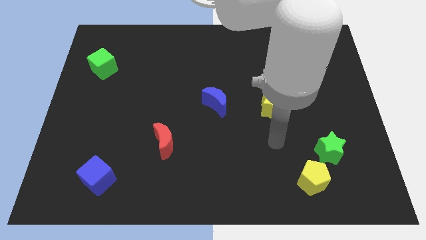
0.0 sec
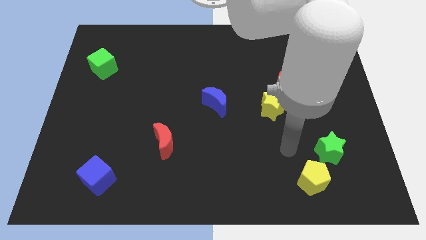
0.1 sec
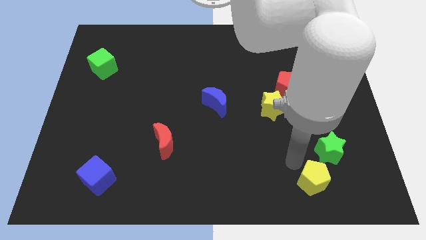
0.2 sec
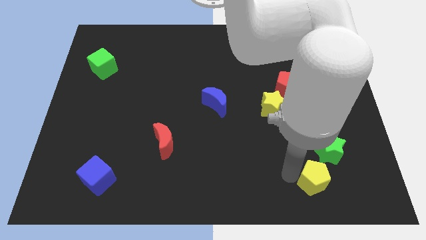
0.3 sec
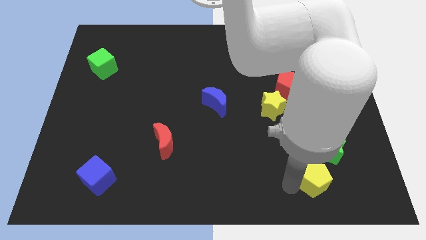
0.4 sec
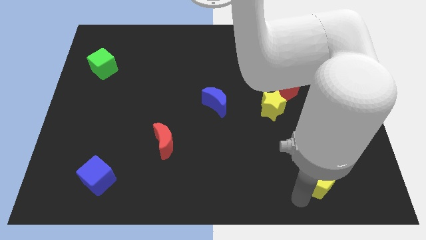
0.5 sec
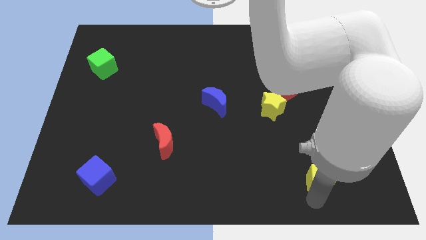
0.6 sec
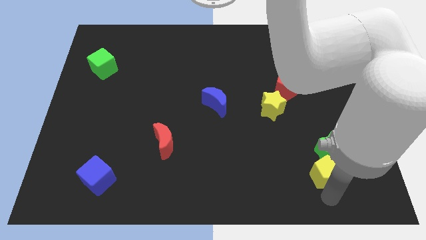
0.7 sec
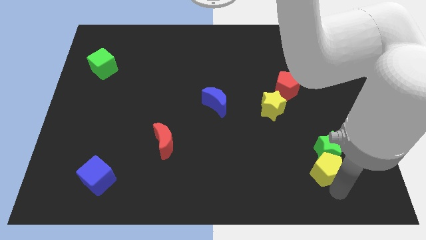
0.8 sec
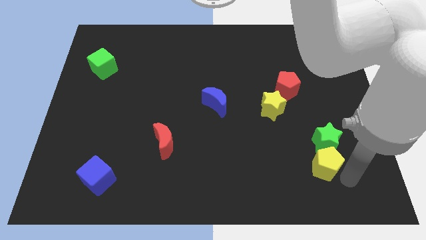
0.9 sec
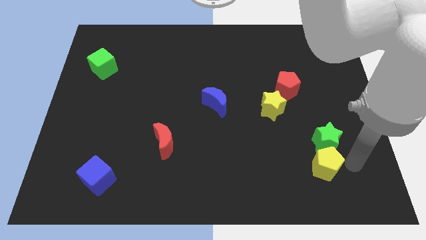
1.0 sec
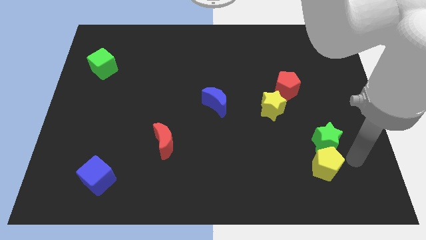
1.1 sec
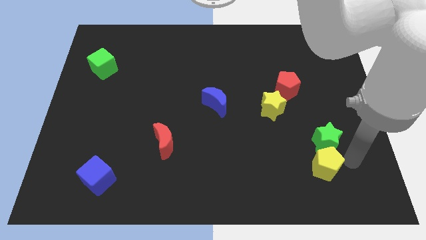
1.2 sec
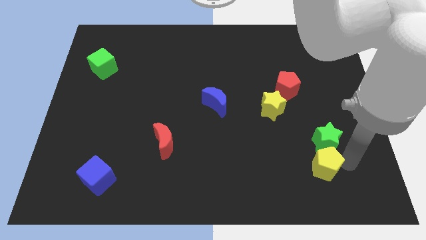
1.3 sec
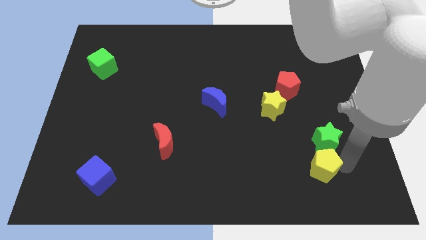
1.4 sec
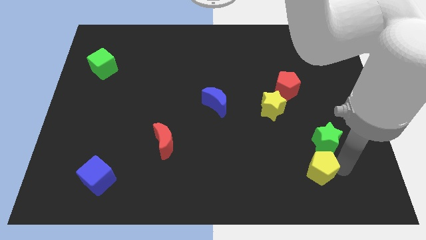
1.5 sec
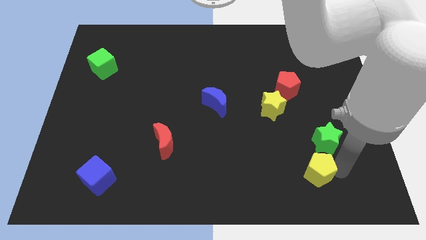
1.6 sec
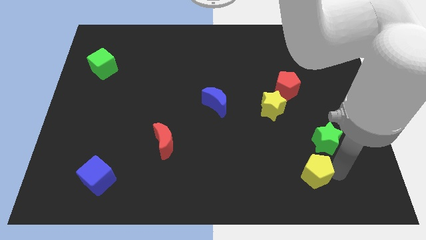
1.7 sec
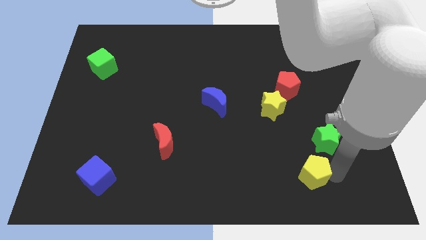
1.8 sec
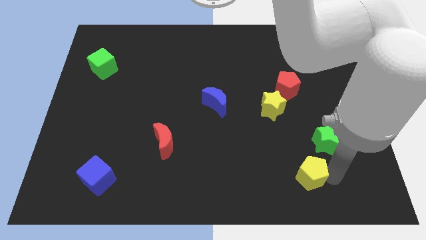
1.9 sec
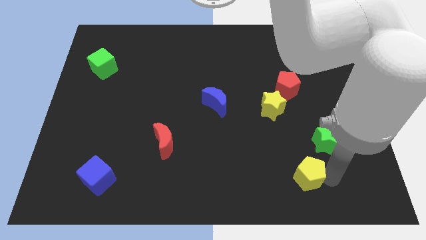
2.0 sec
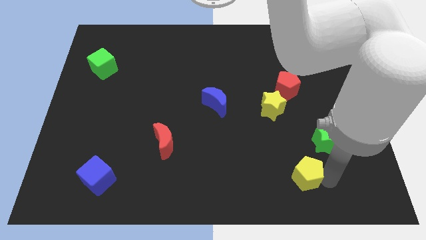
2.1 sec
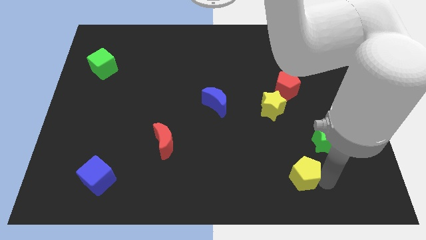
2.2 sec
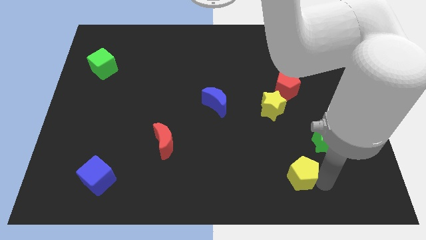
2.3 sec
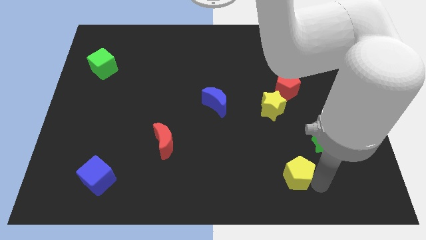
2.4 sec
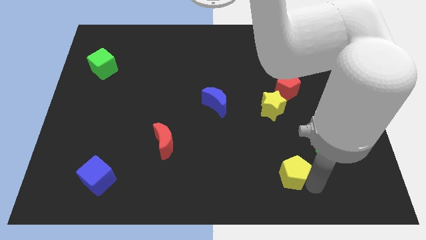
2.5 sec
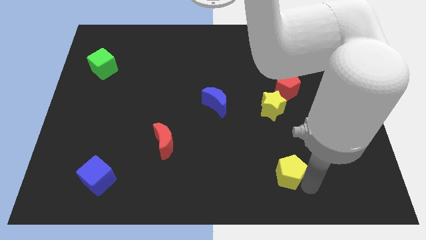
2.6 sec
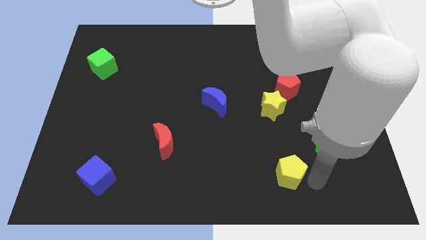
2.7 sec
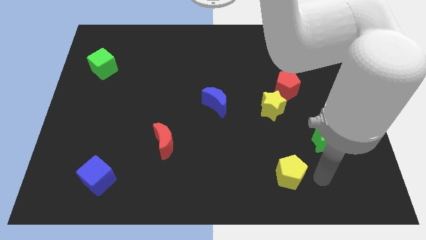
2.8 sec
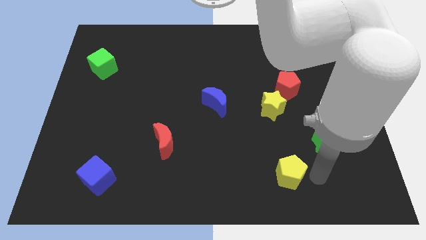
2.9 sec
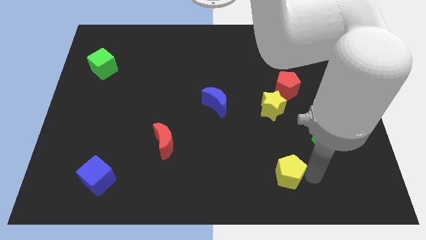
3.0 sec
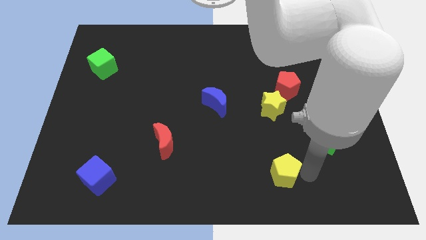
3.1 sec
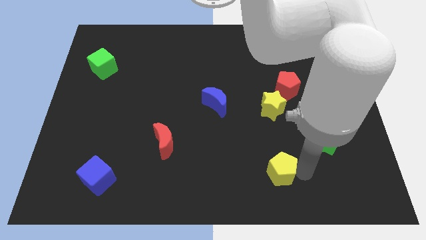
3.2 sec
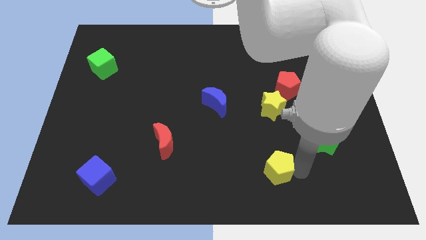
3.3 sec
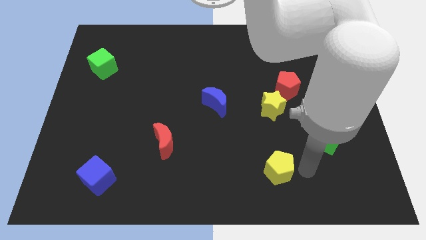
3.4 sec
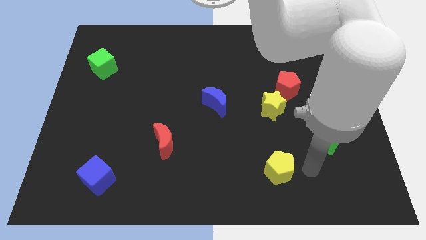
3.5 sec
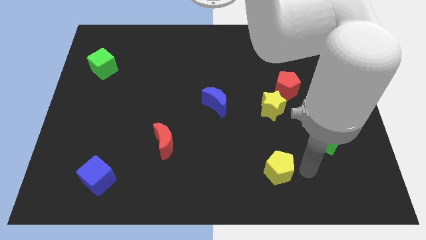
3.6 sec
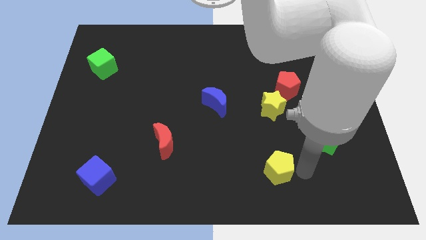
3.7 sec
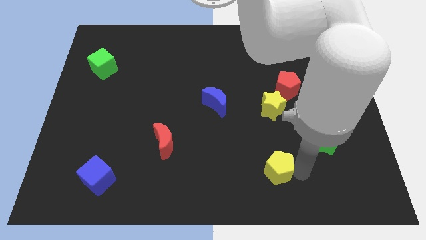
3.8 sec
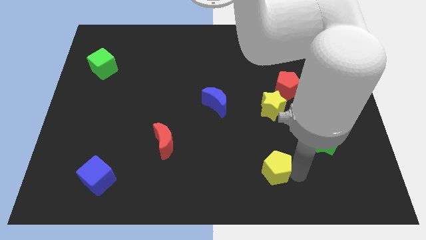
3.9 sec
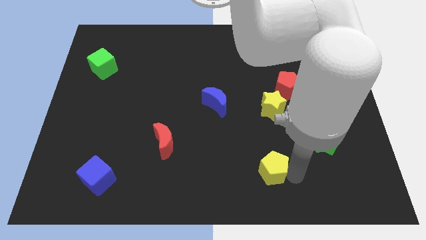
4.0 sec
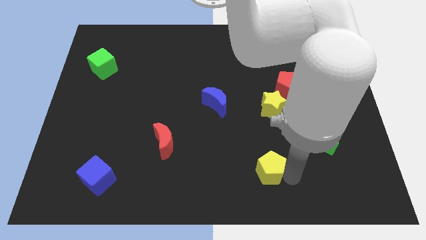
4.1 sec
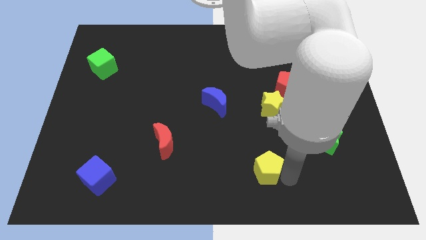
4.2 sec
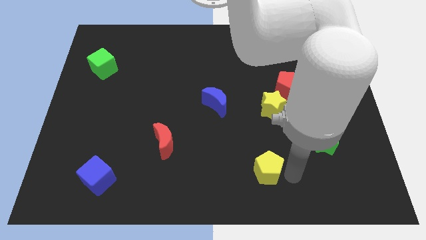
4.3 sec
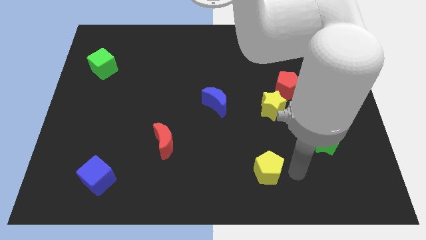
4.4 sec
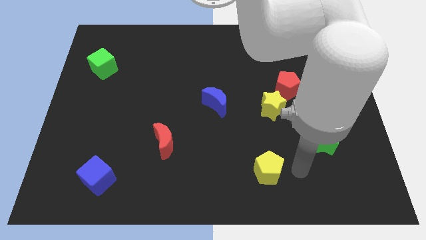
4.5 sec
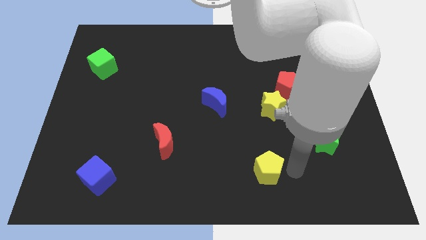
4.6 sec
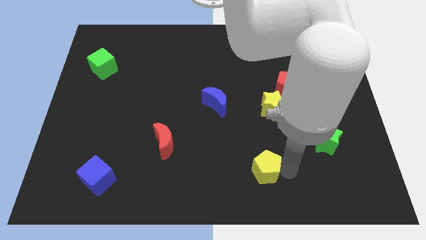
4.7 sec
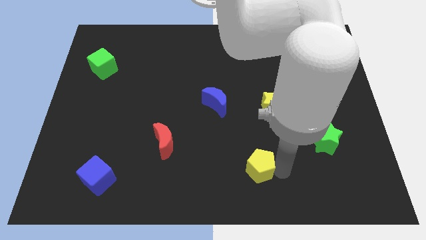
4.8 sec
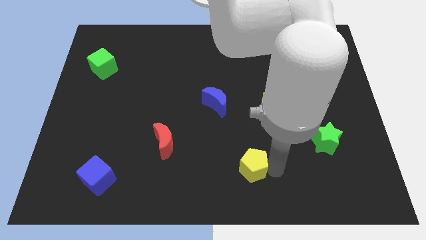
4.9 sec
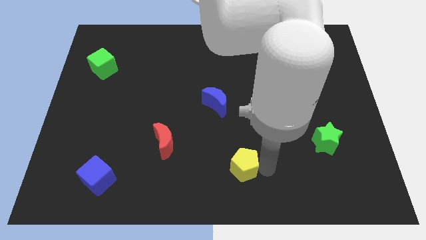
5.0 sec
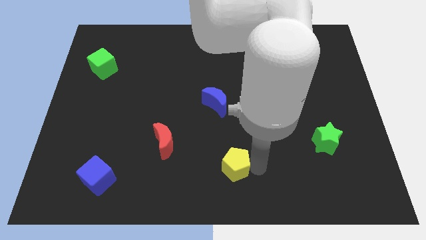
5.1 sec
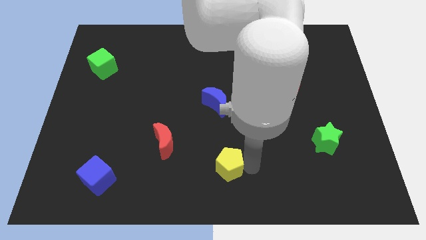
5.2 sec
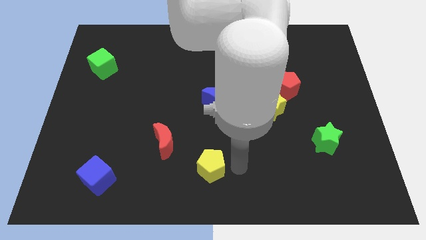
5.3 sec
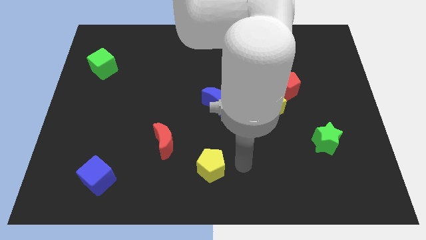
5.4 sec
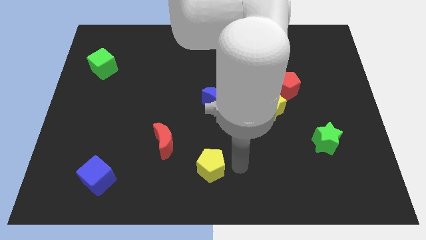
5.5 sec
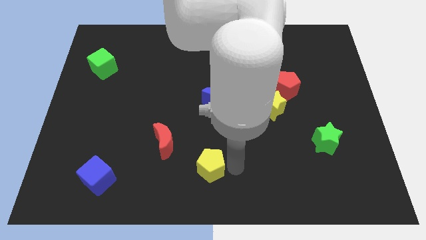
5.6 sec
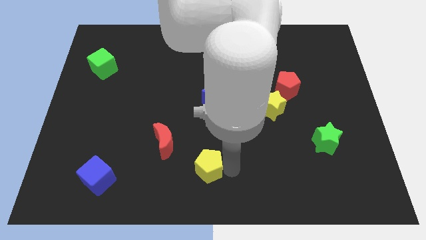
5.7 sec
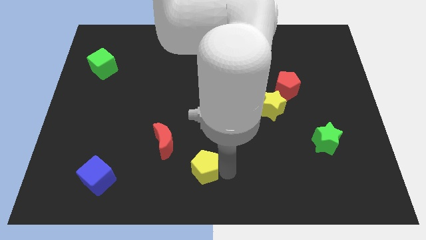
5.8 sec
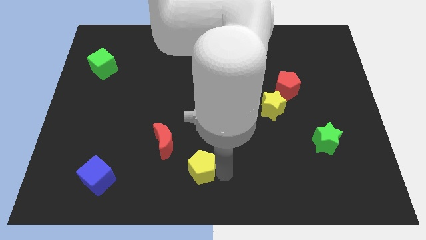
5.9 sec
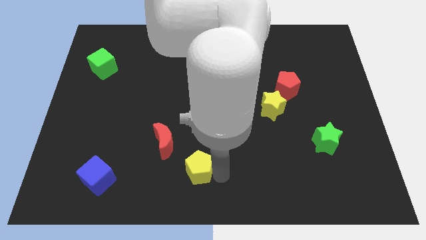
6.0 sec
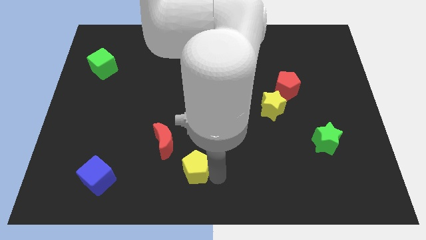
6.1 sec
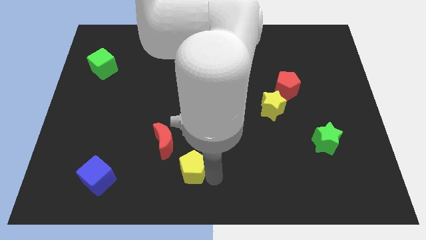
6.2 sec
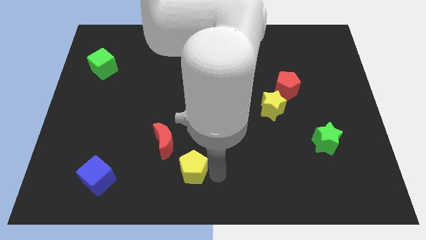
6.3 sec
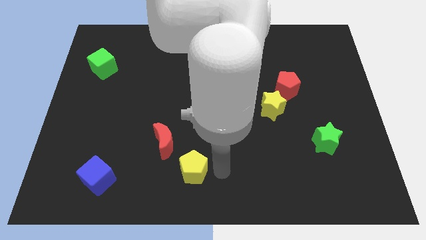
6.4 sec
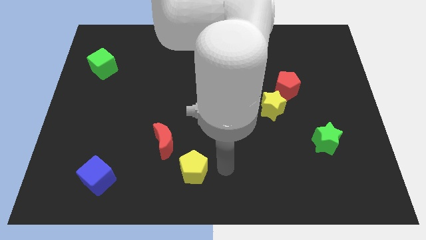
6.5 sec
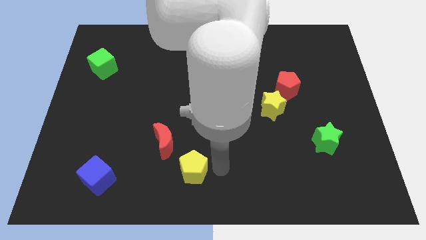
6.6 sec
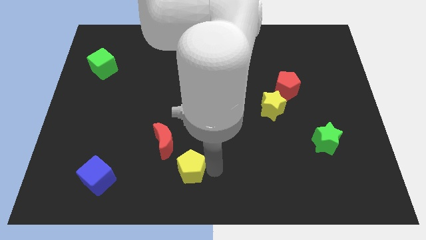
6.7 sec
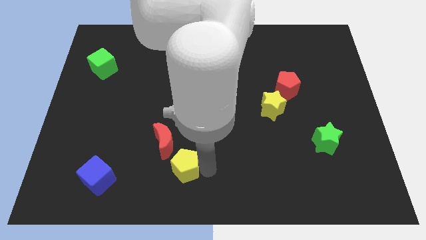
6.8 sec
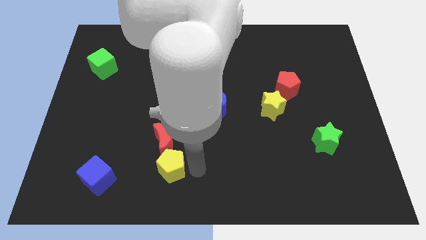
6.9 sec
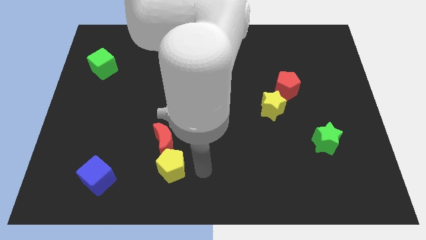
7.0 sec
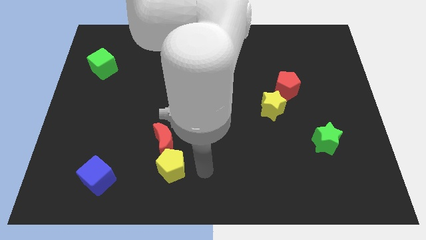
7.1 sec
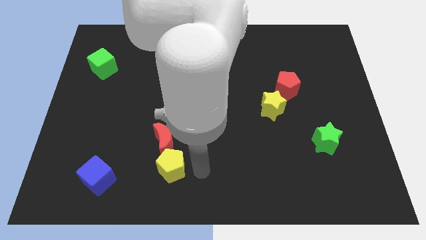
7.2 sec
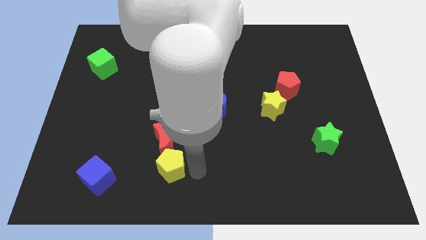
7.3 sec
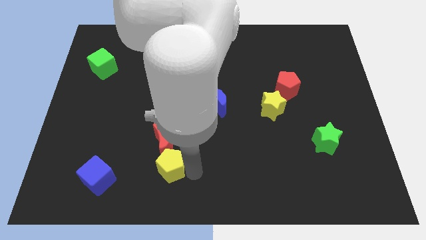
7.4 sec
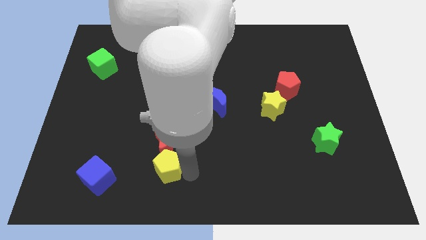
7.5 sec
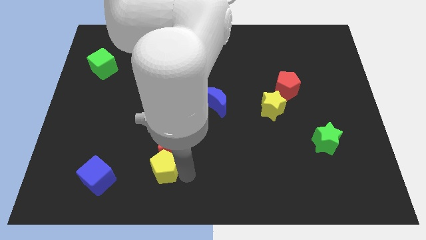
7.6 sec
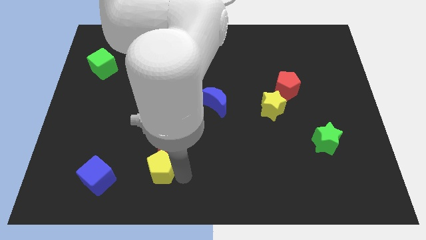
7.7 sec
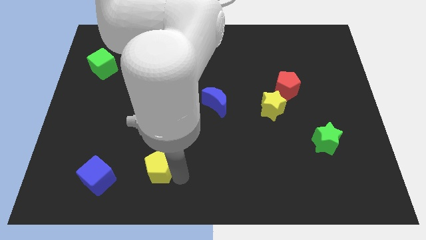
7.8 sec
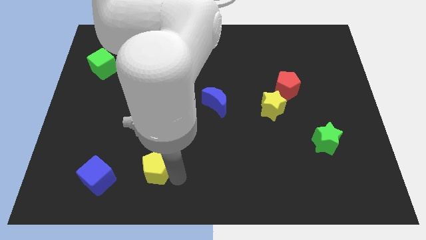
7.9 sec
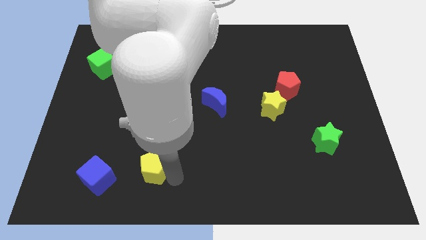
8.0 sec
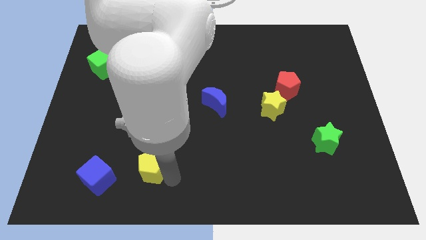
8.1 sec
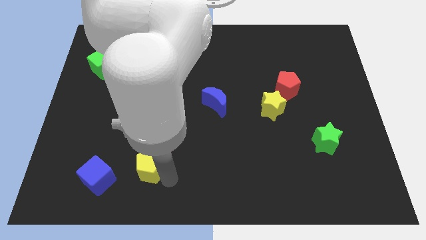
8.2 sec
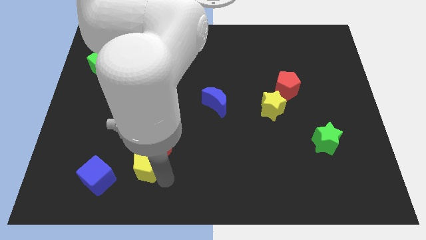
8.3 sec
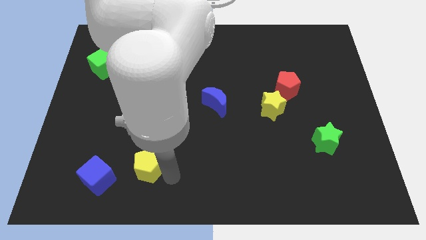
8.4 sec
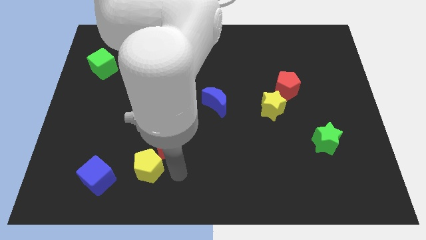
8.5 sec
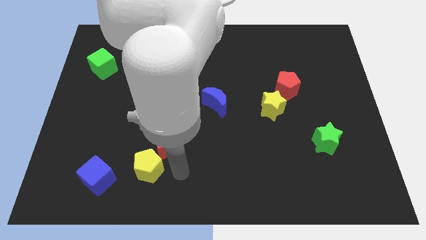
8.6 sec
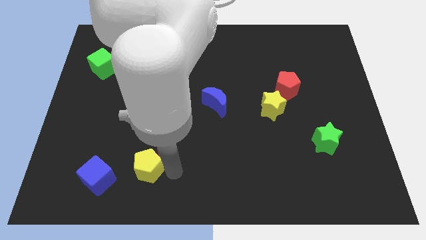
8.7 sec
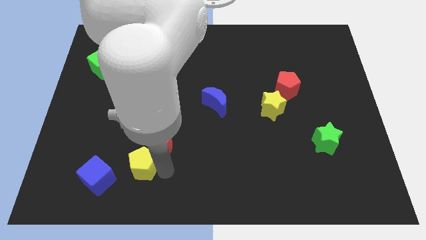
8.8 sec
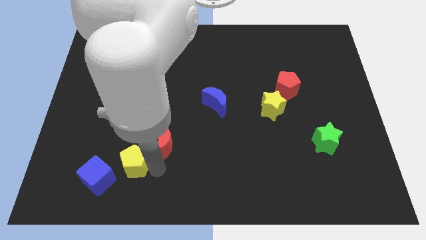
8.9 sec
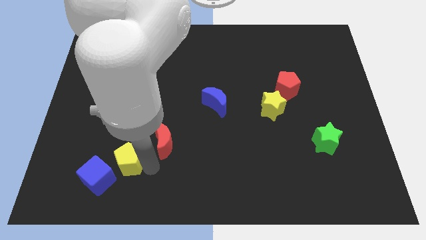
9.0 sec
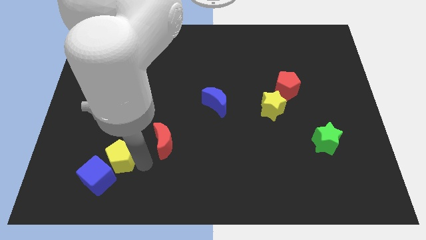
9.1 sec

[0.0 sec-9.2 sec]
move the yellow pentagon towards the blue cube
